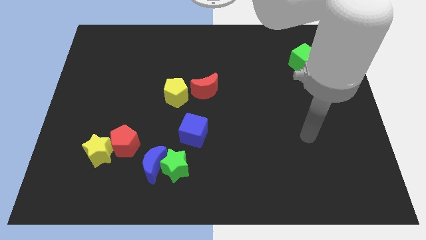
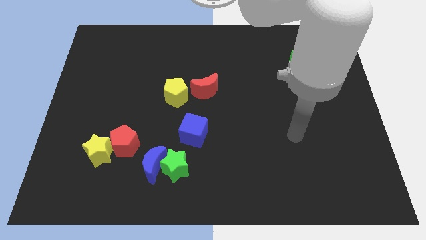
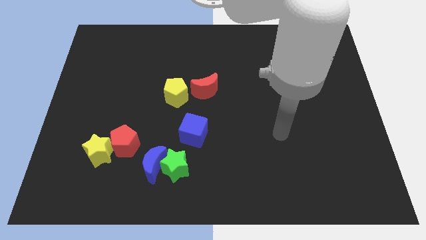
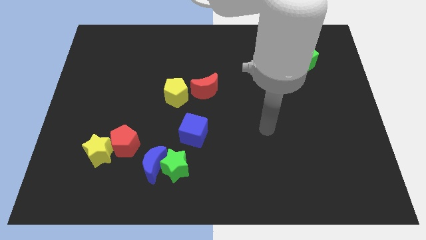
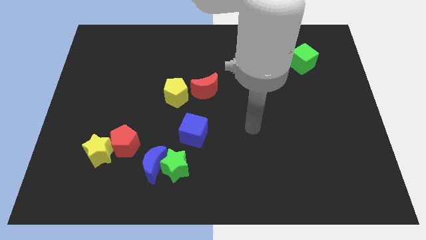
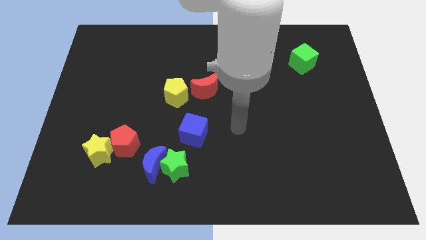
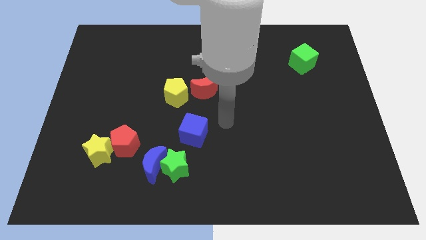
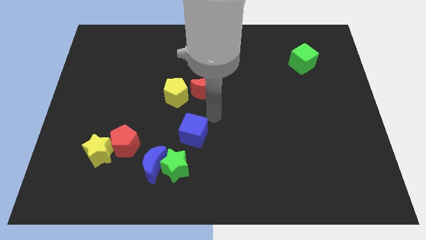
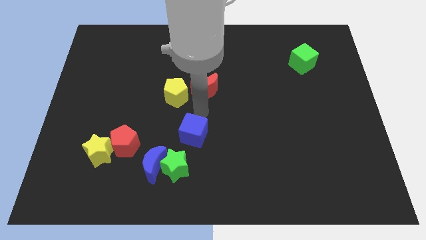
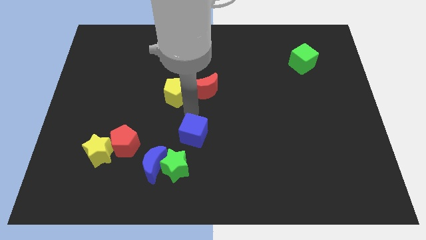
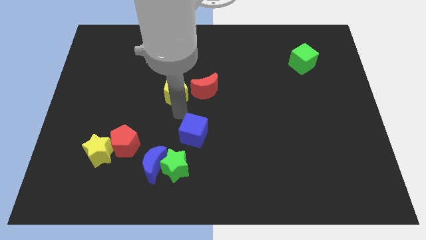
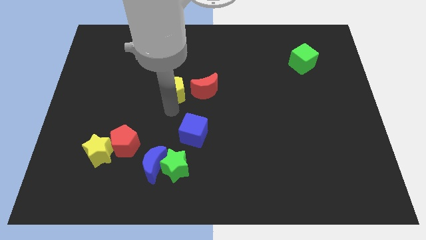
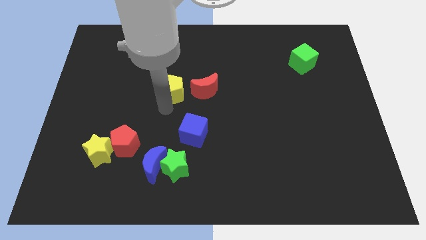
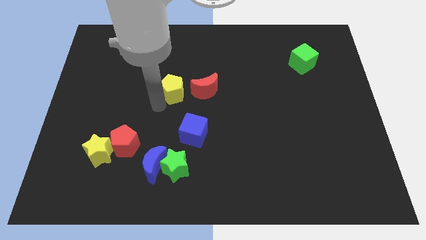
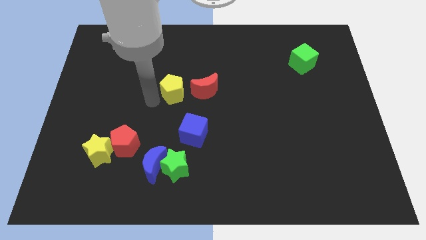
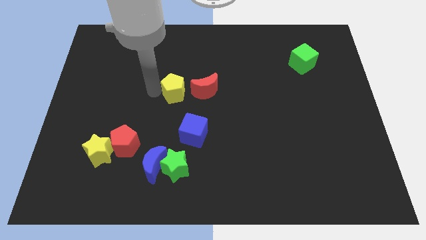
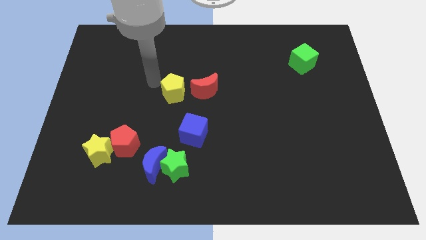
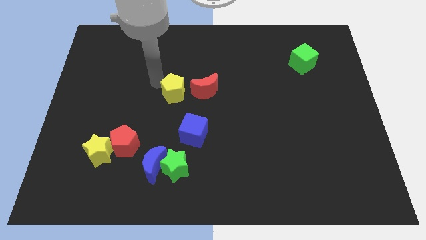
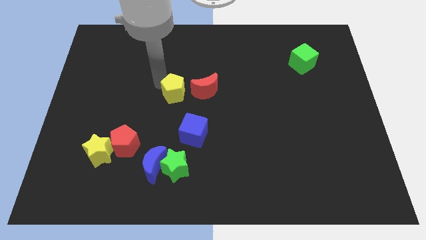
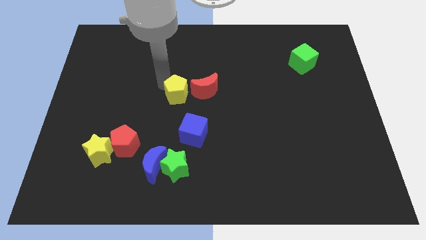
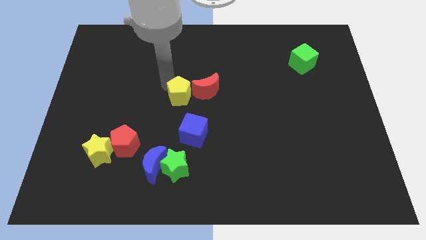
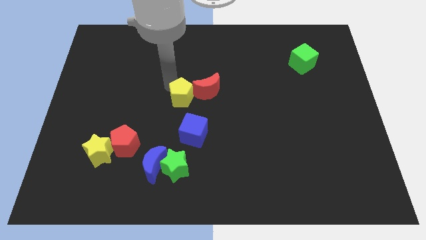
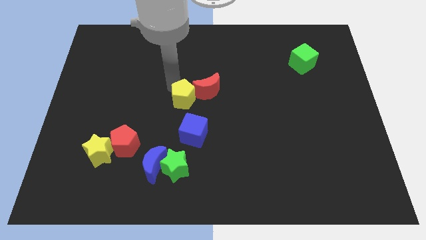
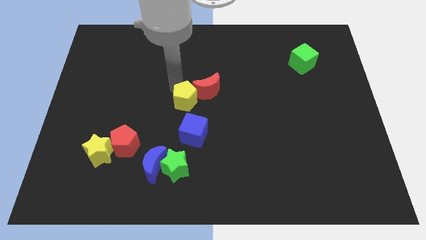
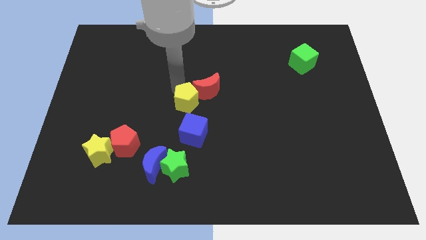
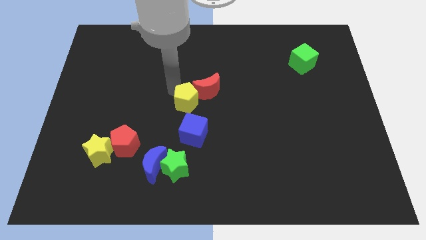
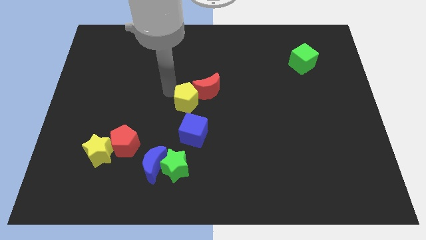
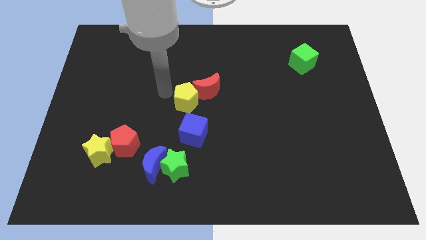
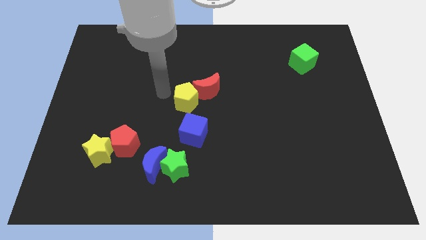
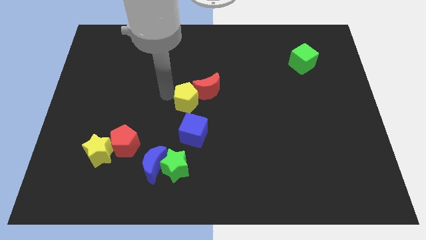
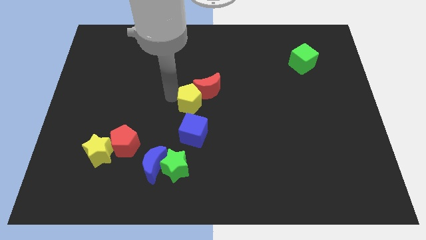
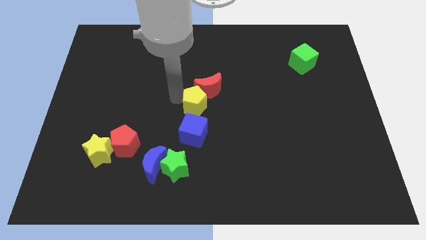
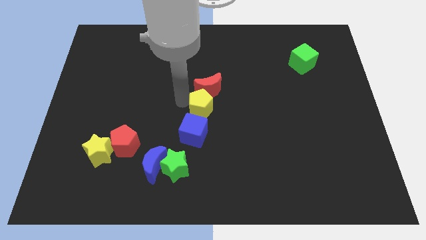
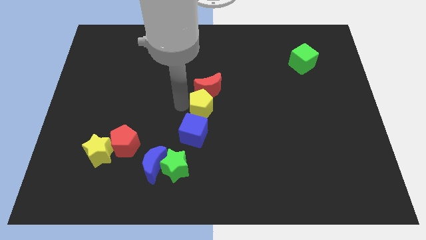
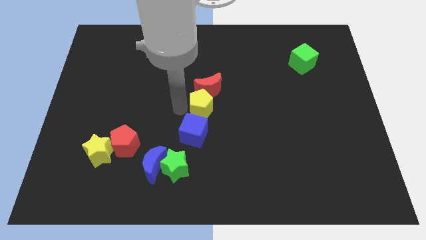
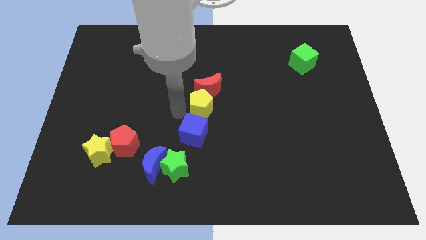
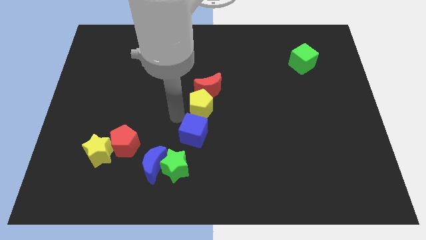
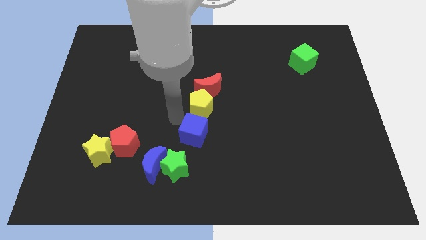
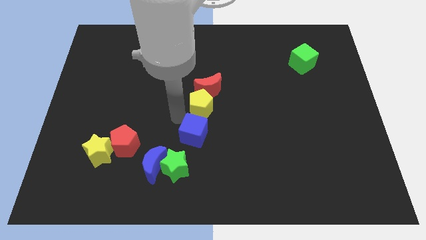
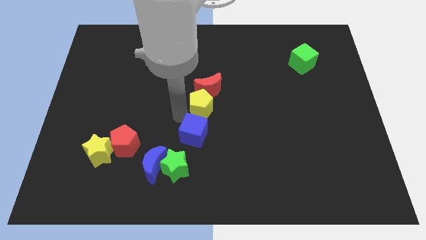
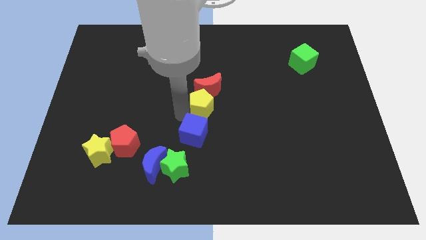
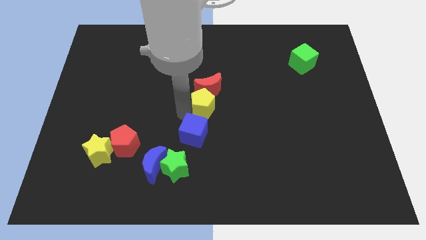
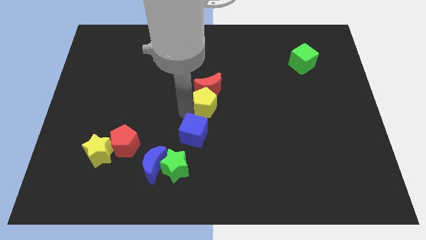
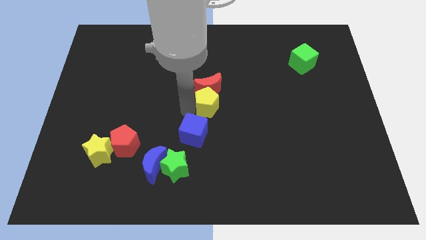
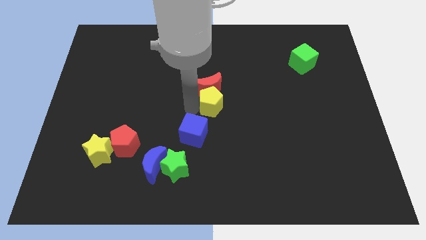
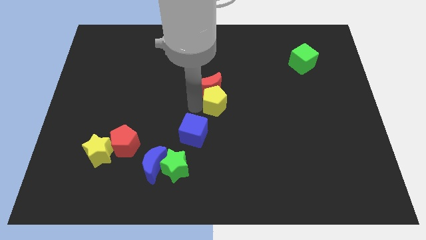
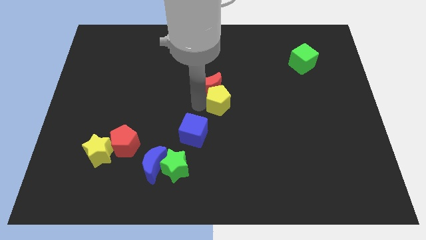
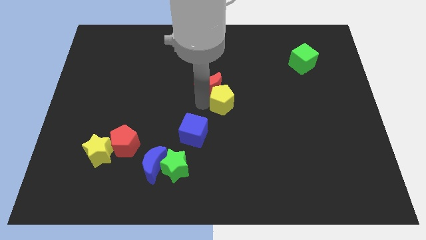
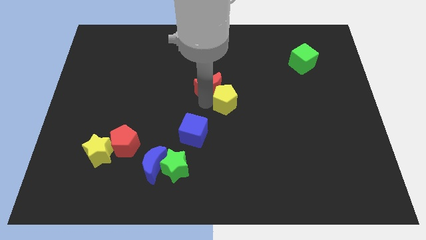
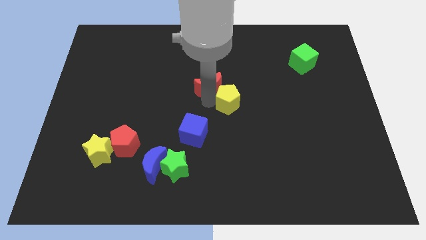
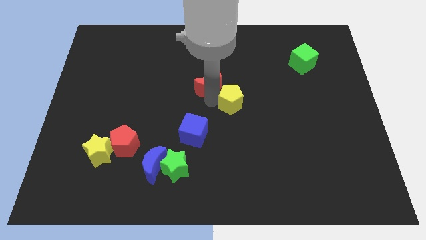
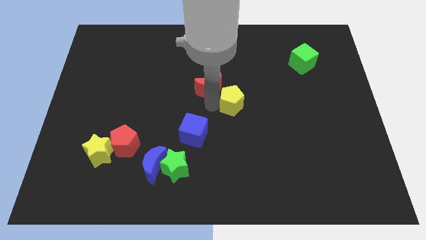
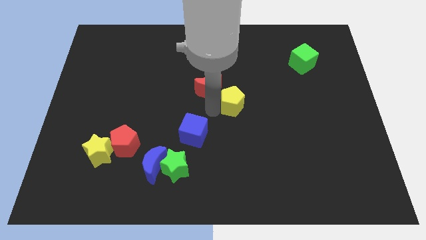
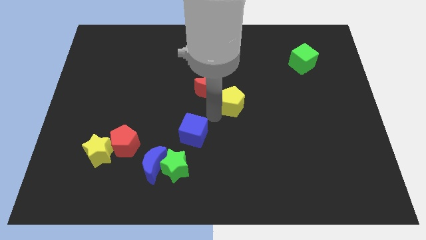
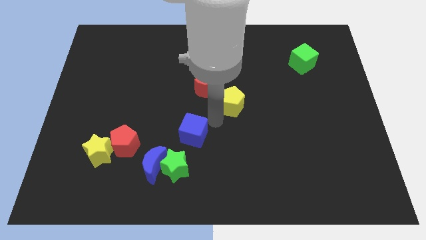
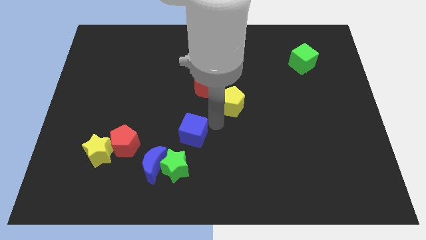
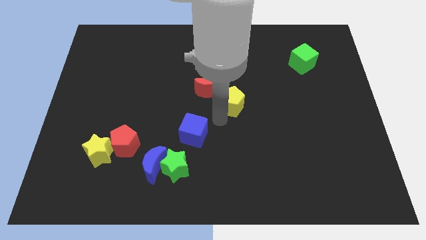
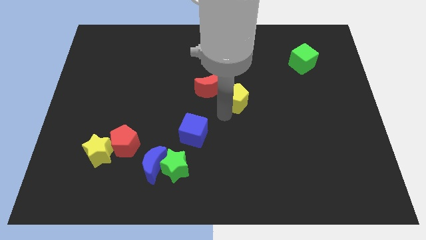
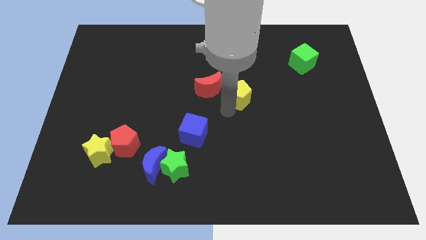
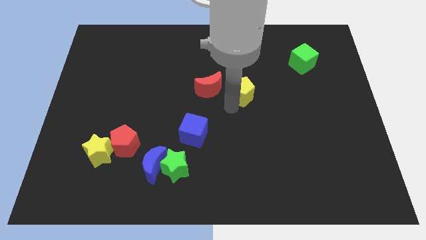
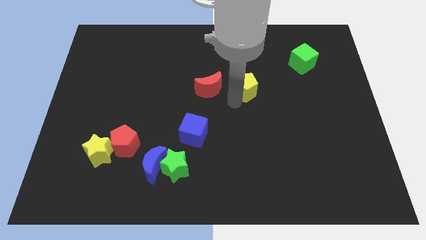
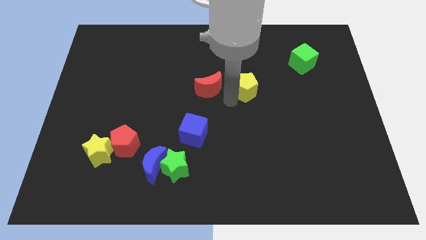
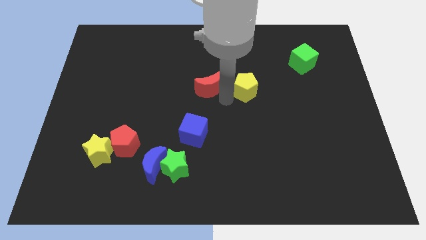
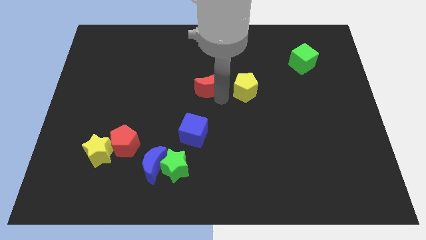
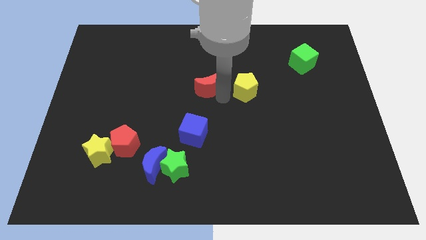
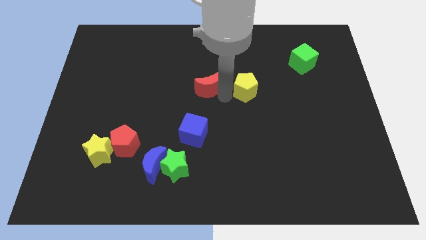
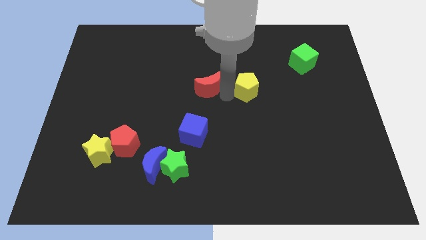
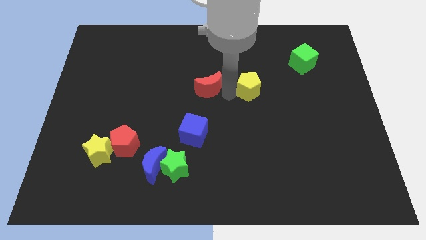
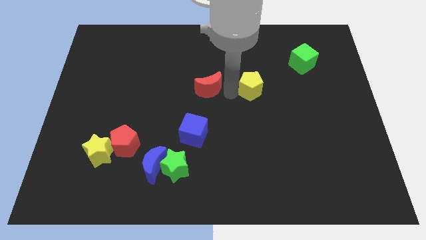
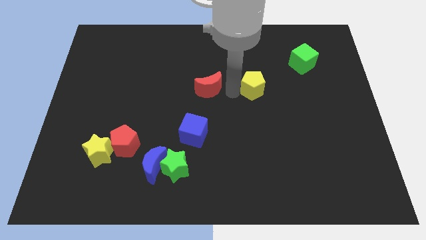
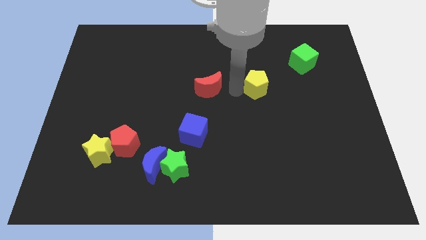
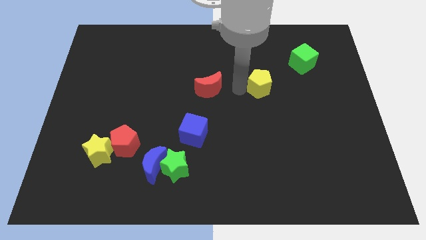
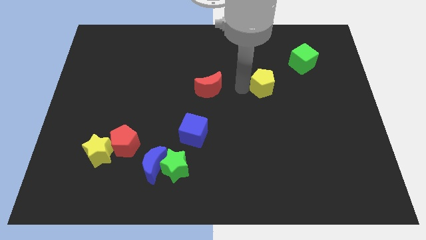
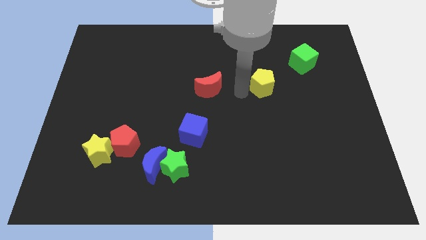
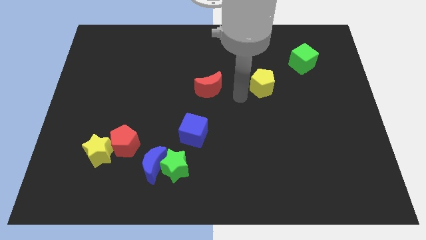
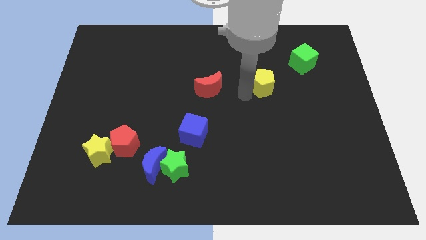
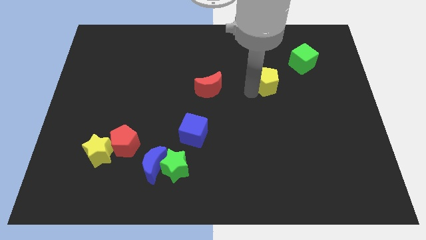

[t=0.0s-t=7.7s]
push the yellow pentagon diagonally down and to the left of the green cube
